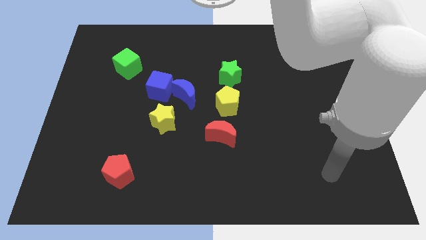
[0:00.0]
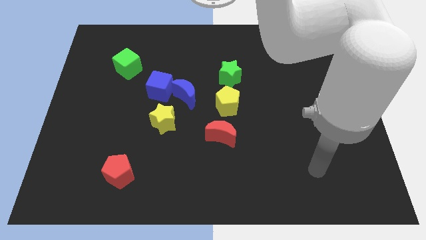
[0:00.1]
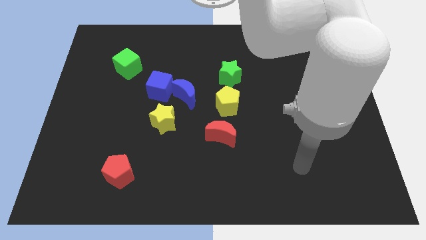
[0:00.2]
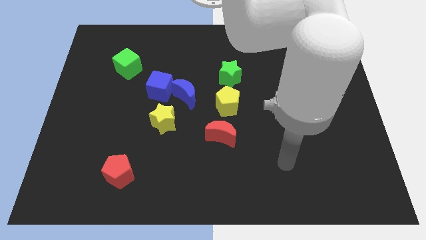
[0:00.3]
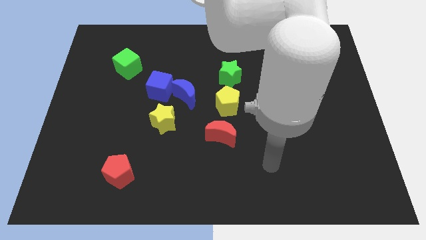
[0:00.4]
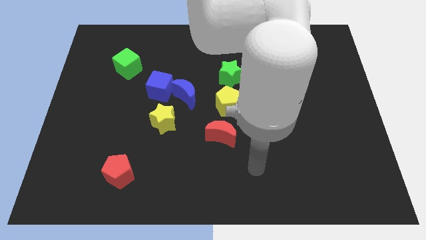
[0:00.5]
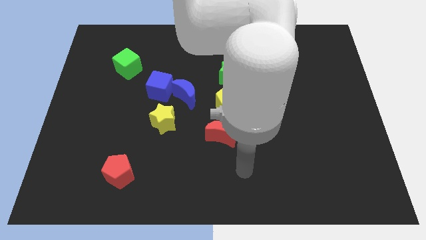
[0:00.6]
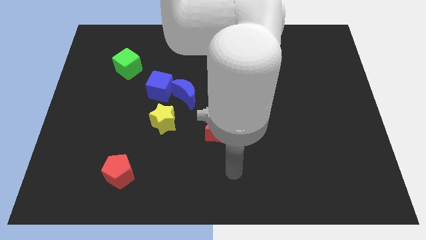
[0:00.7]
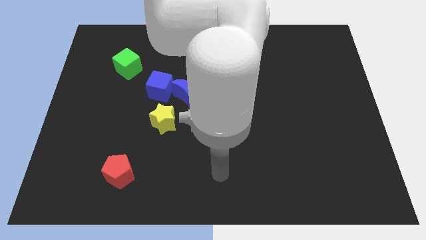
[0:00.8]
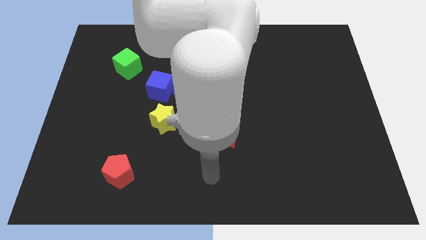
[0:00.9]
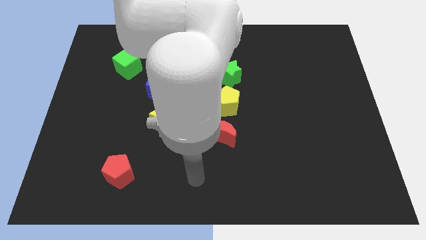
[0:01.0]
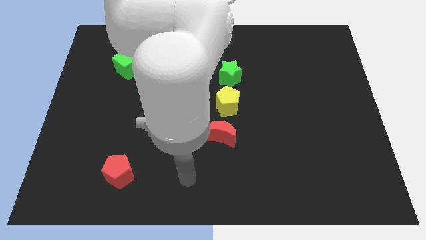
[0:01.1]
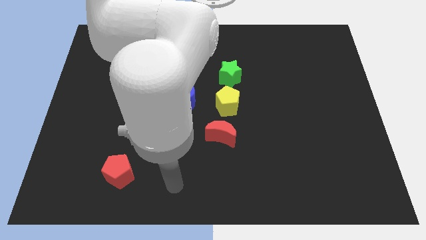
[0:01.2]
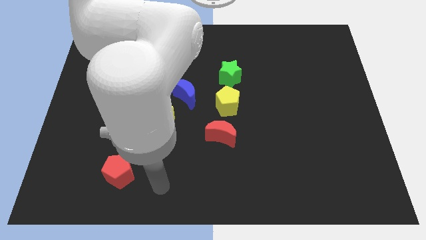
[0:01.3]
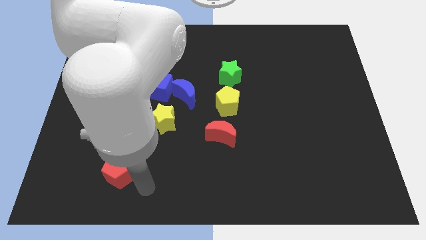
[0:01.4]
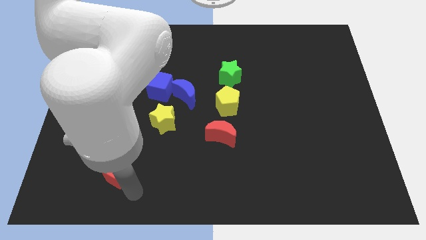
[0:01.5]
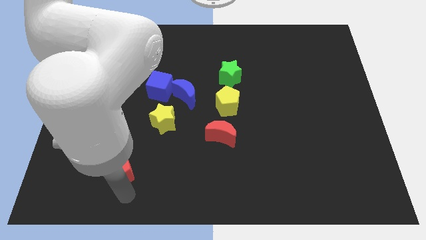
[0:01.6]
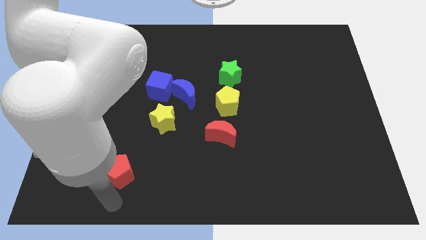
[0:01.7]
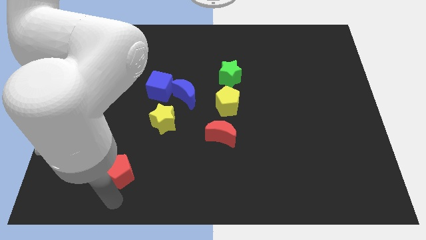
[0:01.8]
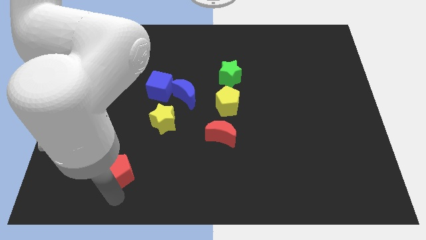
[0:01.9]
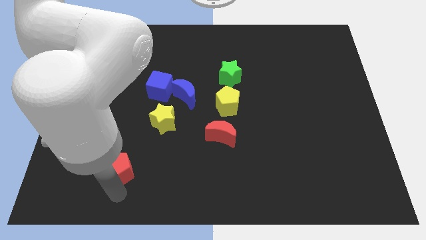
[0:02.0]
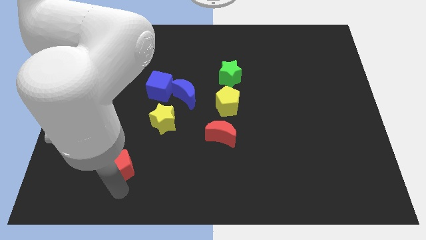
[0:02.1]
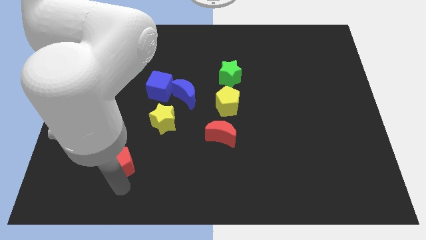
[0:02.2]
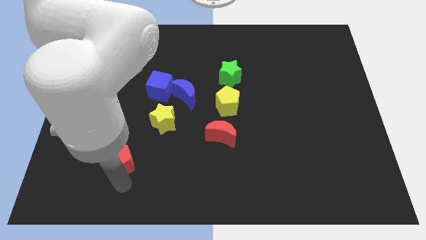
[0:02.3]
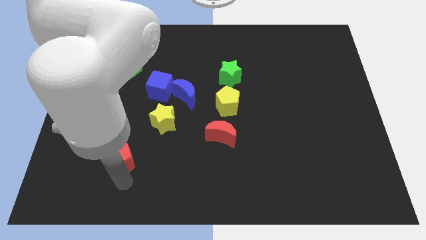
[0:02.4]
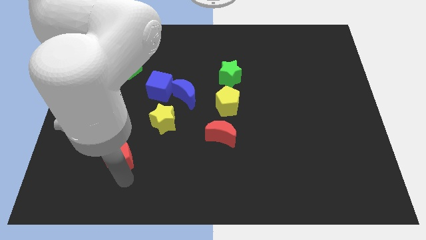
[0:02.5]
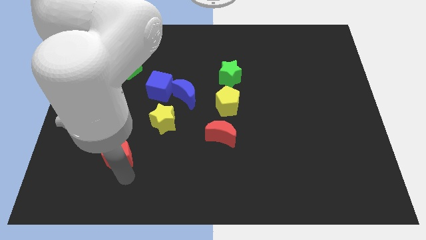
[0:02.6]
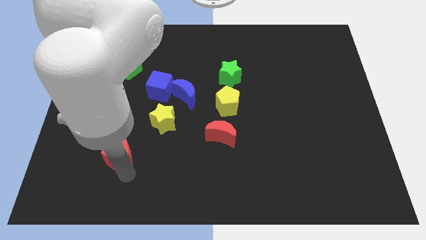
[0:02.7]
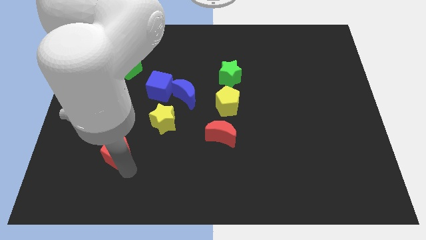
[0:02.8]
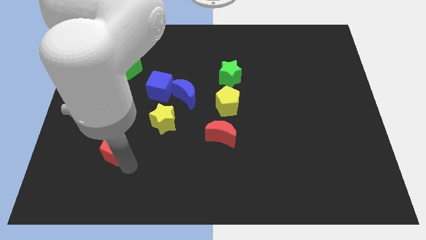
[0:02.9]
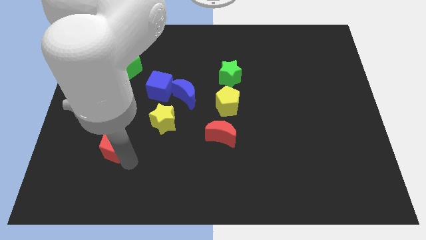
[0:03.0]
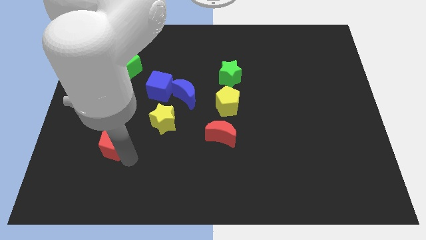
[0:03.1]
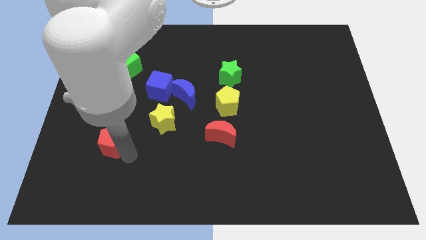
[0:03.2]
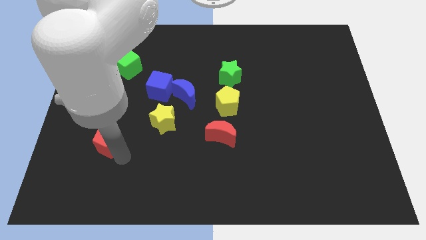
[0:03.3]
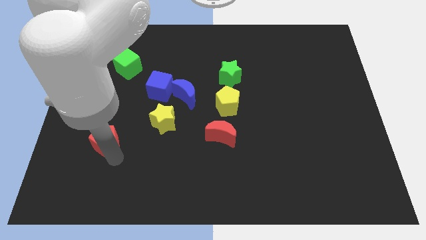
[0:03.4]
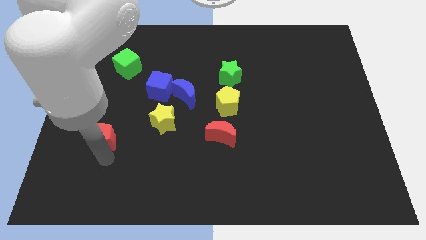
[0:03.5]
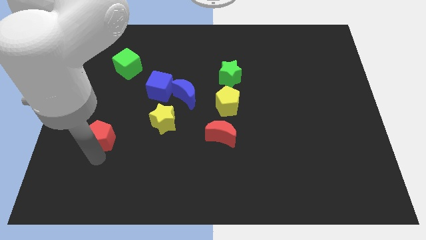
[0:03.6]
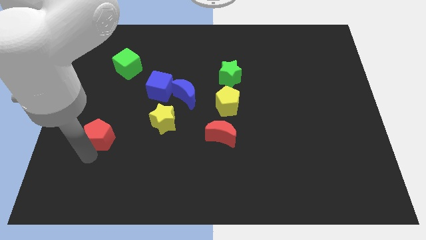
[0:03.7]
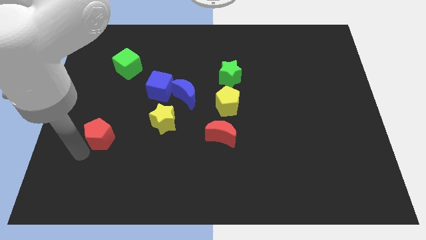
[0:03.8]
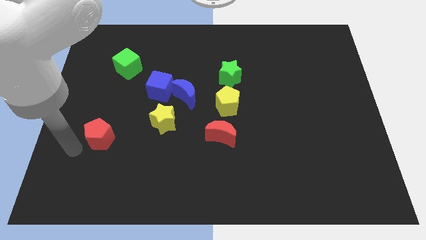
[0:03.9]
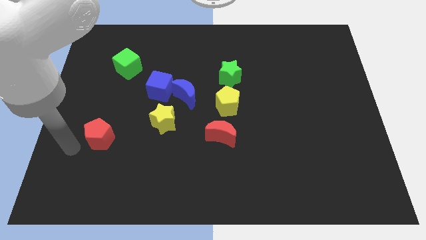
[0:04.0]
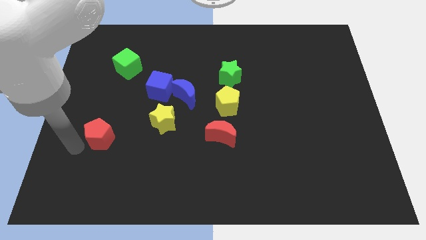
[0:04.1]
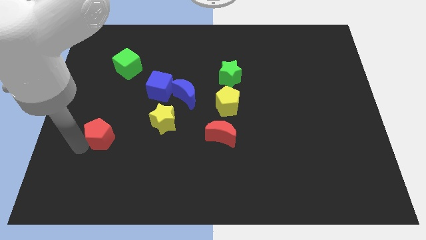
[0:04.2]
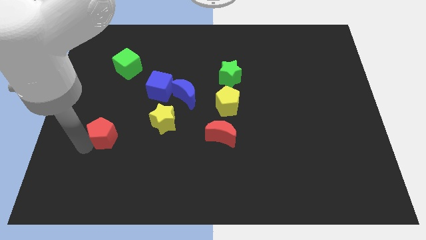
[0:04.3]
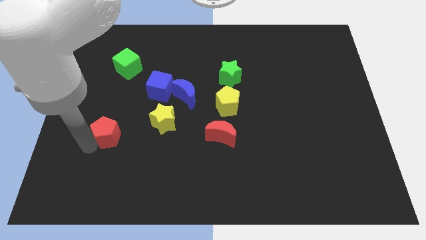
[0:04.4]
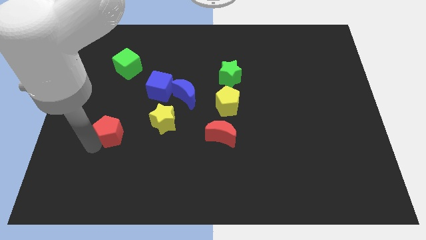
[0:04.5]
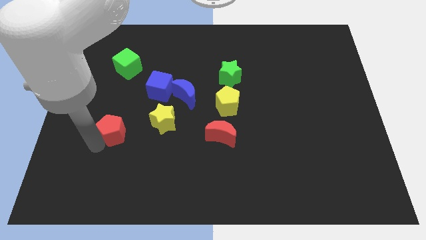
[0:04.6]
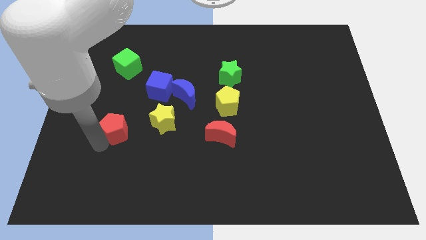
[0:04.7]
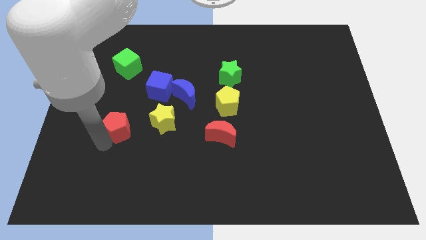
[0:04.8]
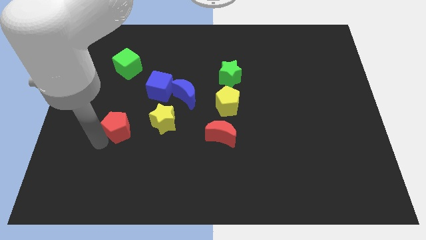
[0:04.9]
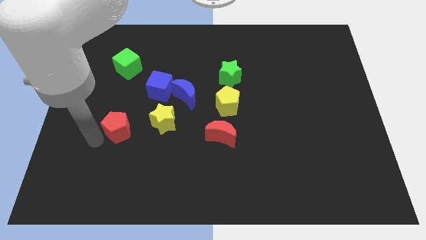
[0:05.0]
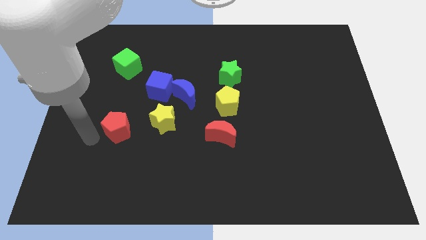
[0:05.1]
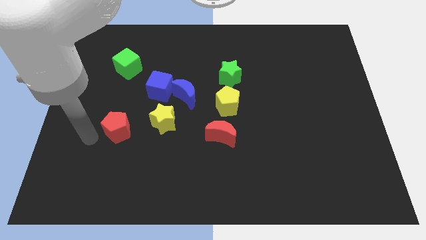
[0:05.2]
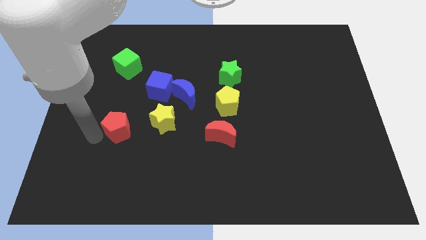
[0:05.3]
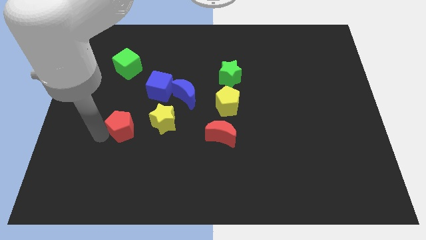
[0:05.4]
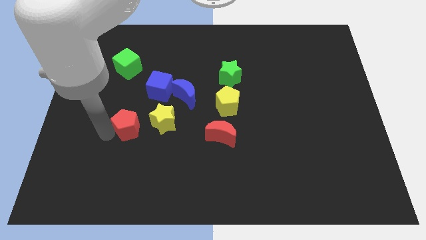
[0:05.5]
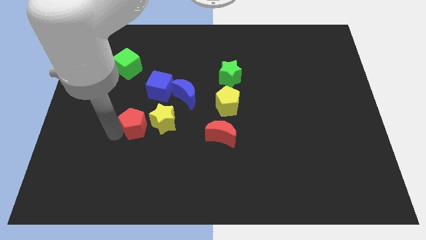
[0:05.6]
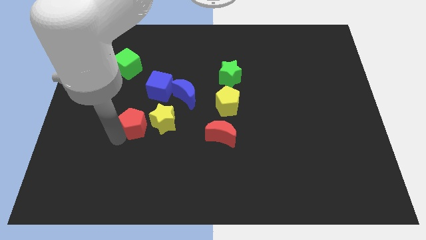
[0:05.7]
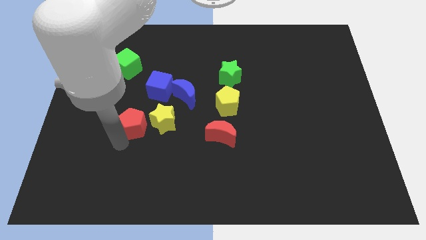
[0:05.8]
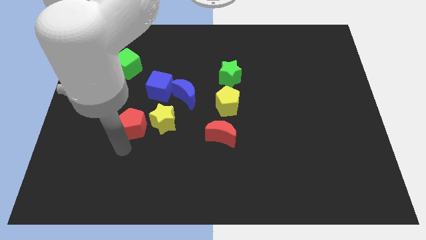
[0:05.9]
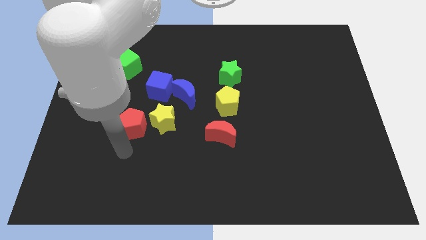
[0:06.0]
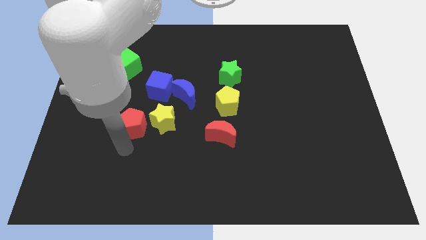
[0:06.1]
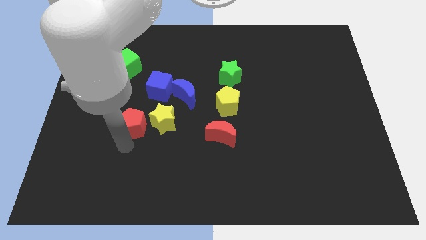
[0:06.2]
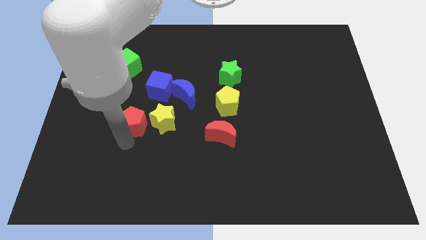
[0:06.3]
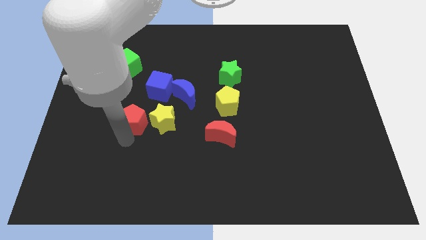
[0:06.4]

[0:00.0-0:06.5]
push the red pentagon diagonally up and to the left of the yellow star

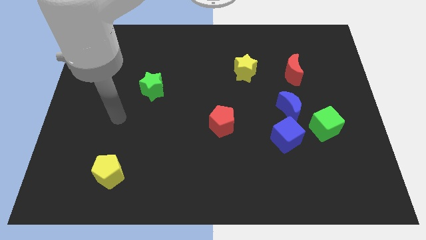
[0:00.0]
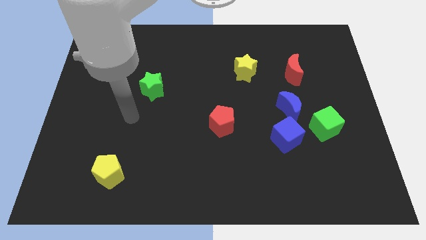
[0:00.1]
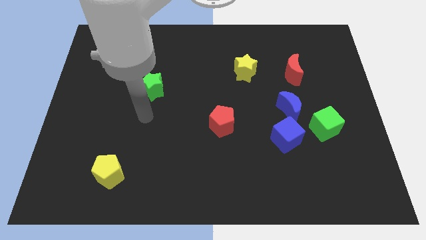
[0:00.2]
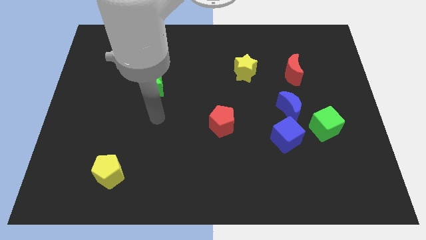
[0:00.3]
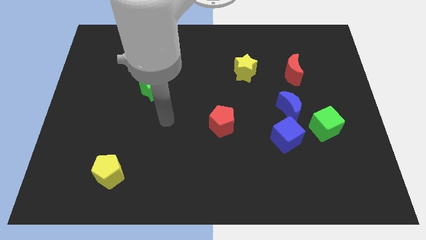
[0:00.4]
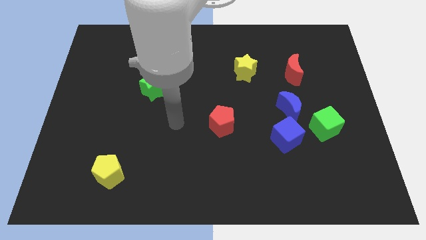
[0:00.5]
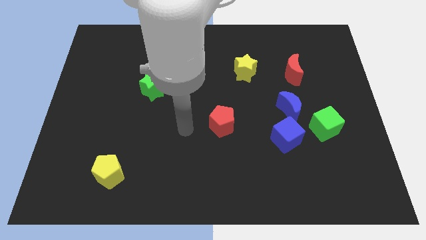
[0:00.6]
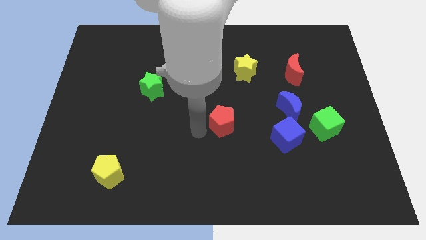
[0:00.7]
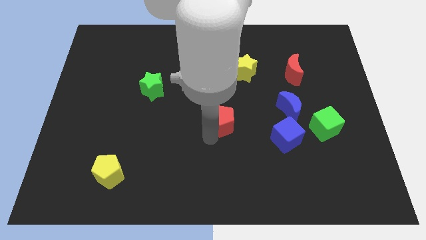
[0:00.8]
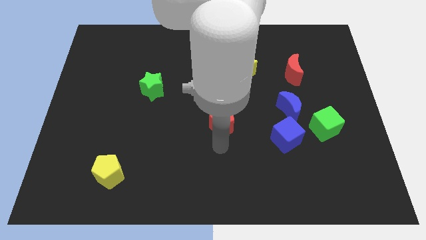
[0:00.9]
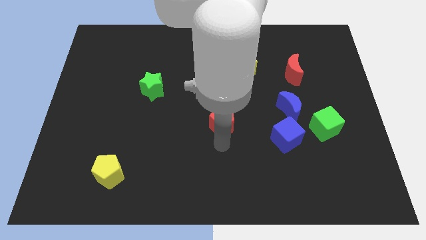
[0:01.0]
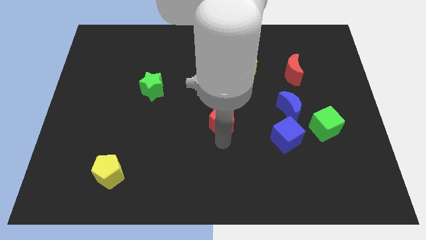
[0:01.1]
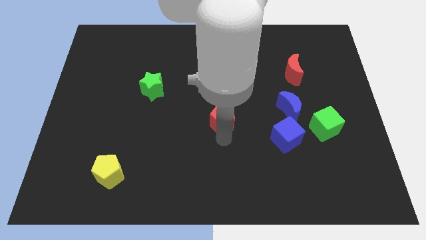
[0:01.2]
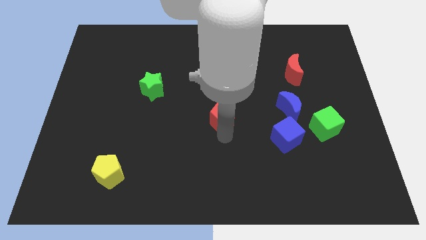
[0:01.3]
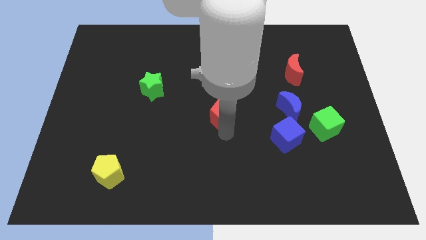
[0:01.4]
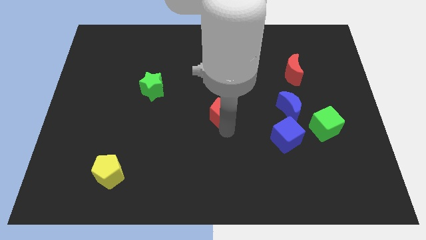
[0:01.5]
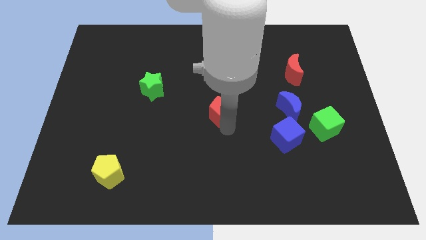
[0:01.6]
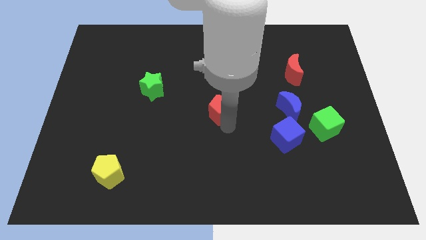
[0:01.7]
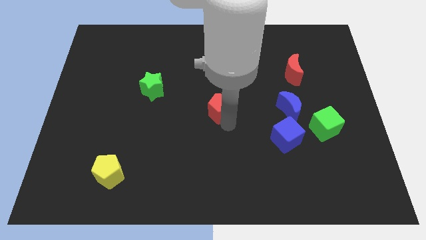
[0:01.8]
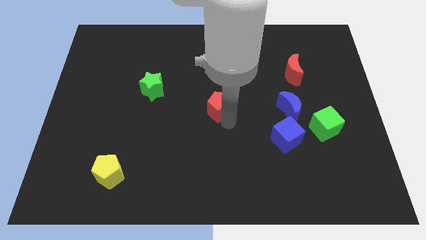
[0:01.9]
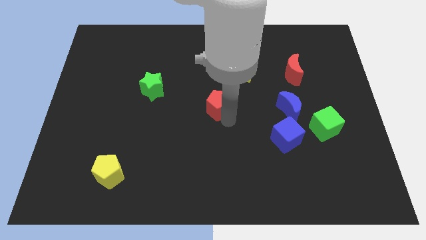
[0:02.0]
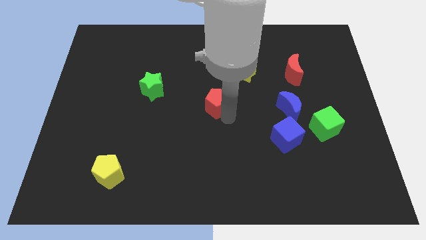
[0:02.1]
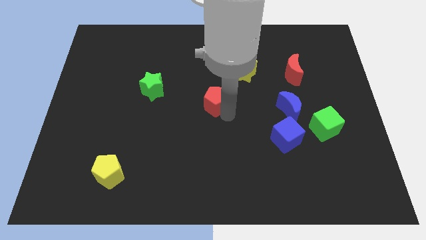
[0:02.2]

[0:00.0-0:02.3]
push the red pentagon to the bottom left side of the yellow star
